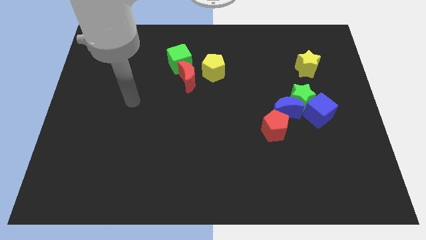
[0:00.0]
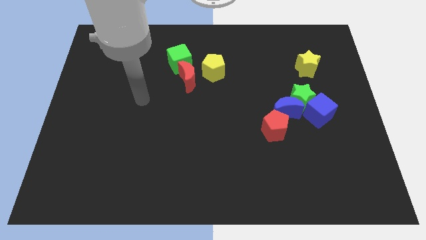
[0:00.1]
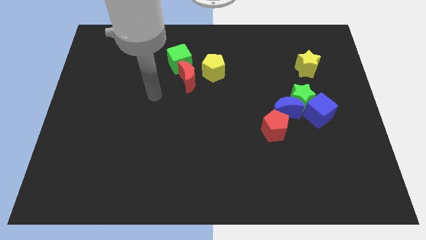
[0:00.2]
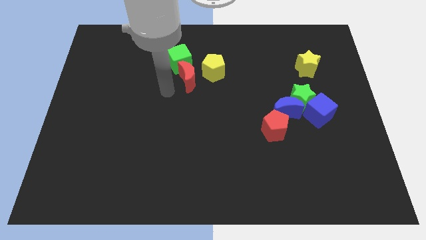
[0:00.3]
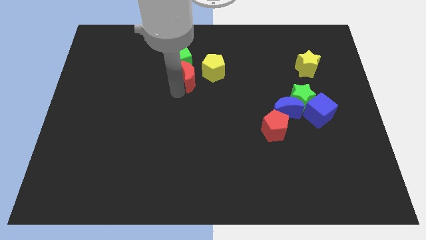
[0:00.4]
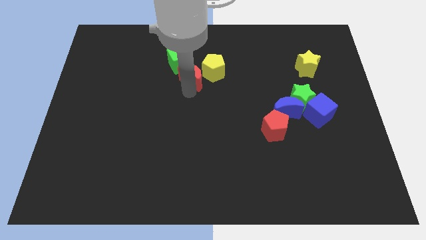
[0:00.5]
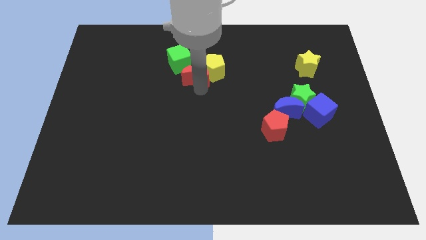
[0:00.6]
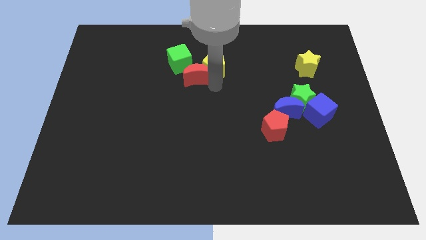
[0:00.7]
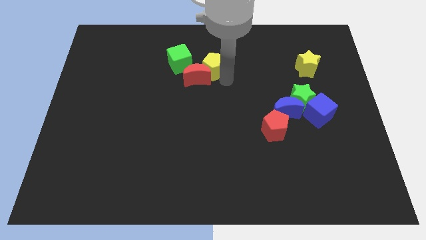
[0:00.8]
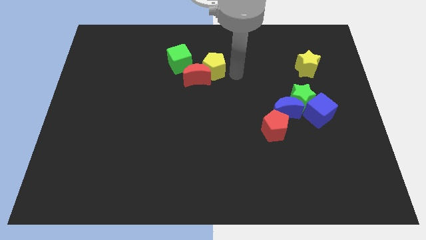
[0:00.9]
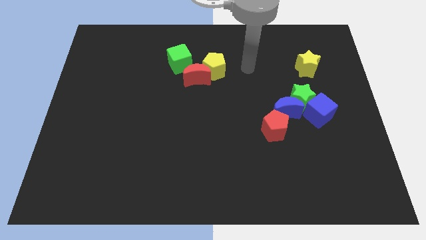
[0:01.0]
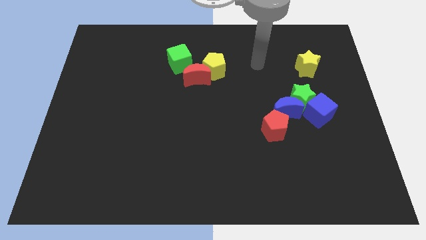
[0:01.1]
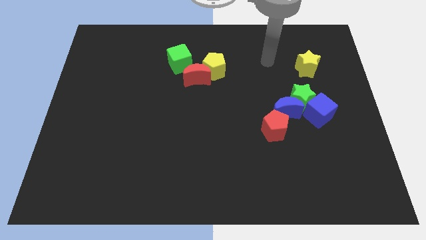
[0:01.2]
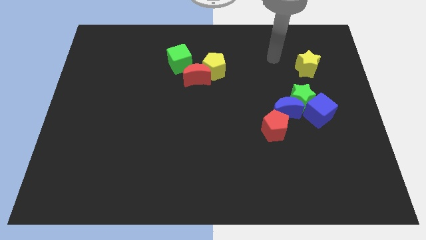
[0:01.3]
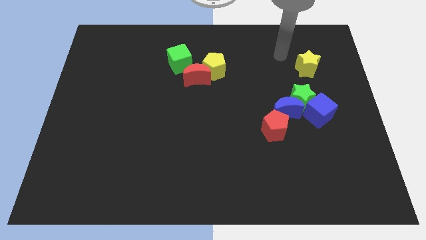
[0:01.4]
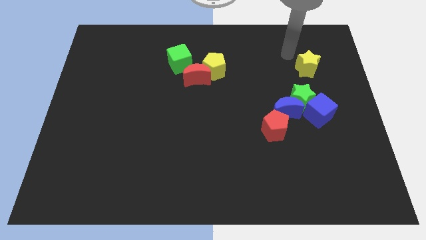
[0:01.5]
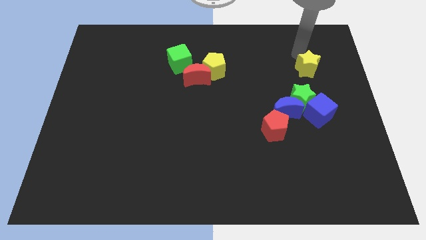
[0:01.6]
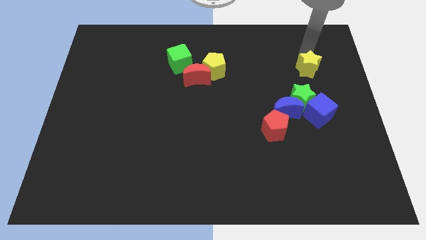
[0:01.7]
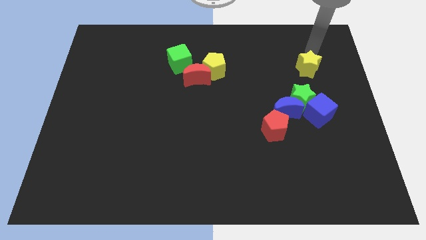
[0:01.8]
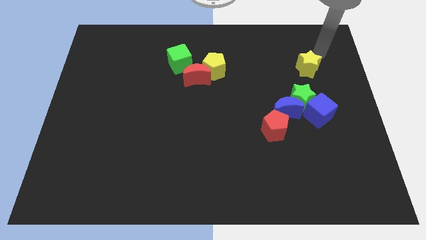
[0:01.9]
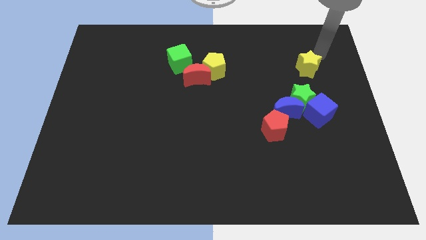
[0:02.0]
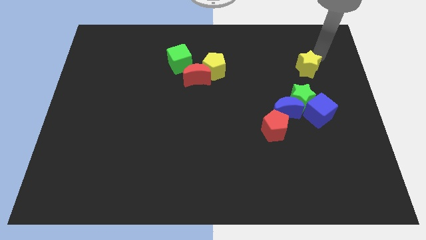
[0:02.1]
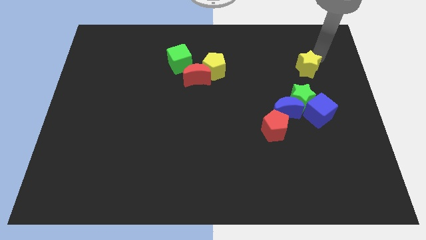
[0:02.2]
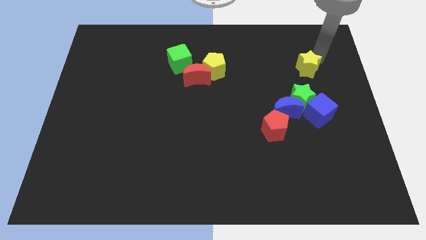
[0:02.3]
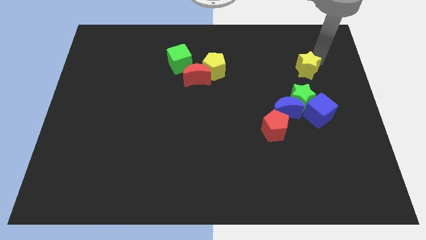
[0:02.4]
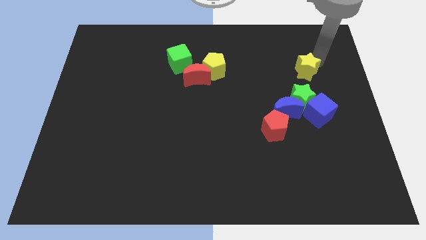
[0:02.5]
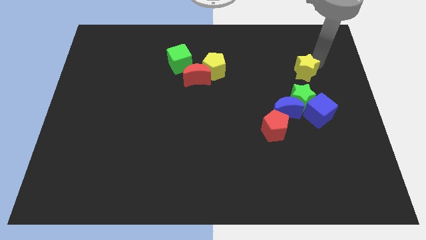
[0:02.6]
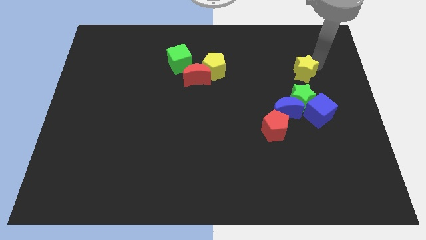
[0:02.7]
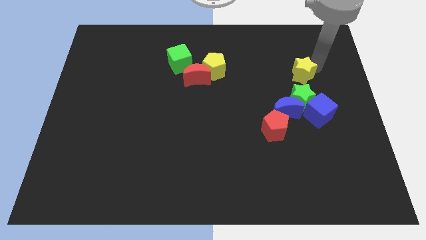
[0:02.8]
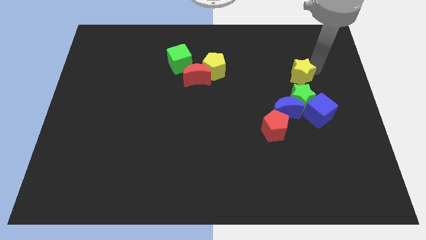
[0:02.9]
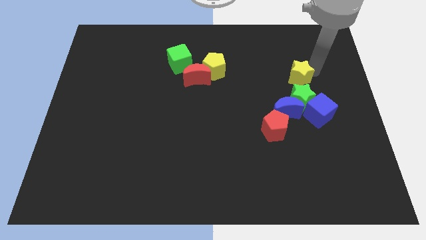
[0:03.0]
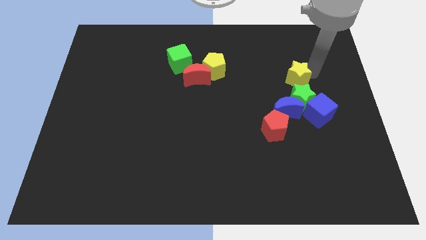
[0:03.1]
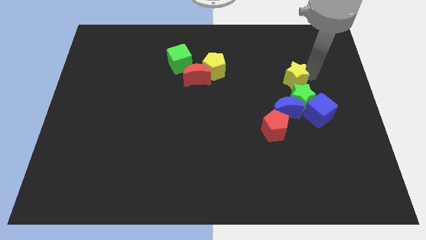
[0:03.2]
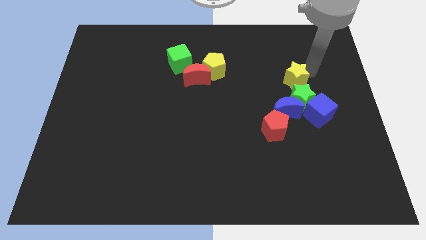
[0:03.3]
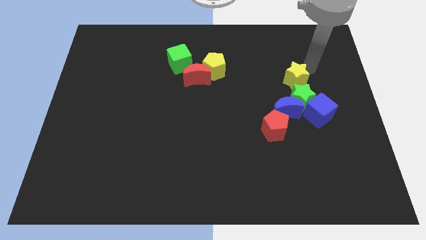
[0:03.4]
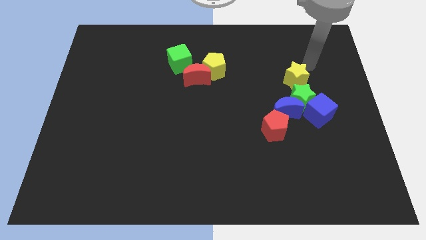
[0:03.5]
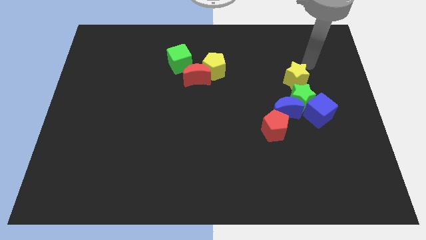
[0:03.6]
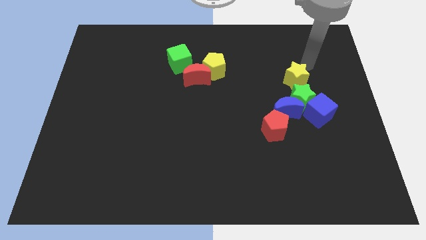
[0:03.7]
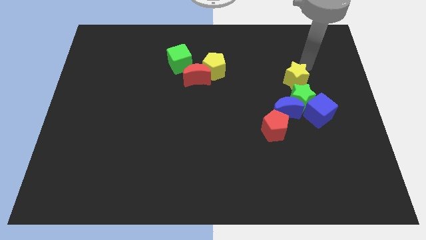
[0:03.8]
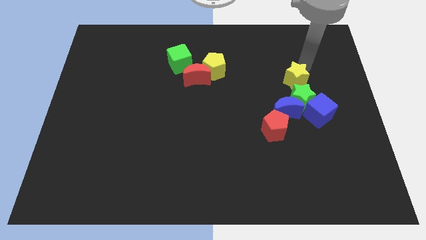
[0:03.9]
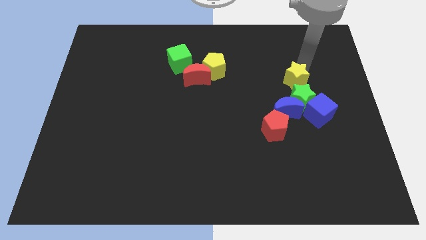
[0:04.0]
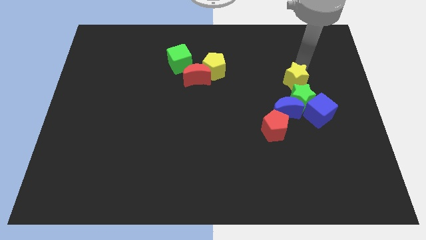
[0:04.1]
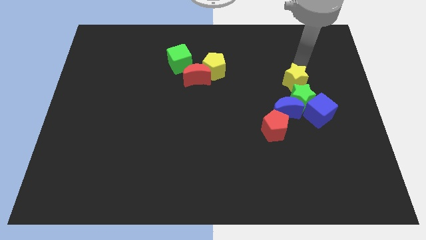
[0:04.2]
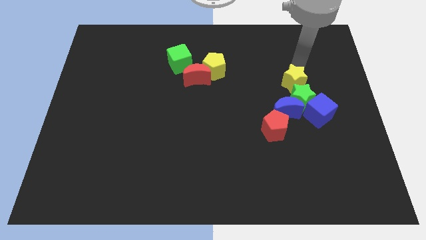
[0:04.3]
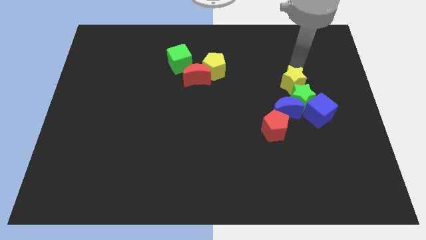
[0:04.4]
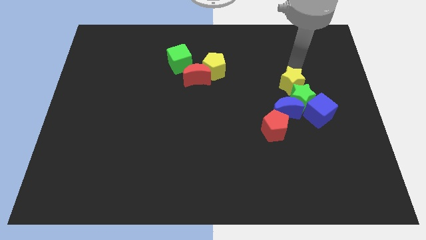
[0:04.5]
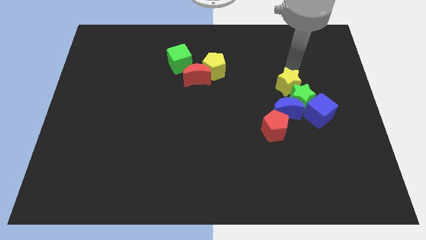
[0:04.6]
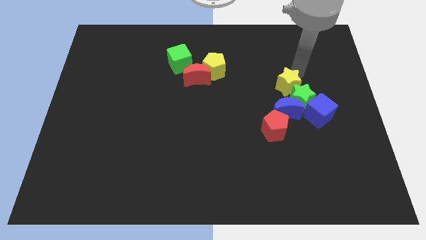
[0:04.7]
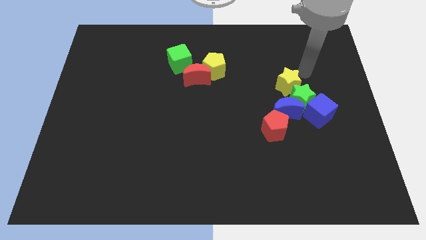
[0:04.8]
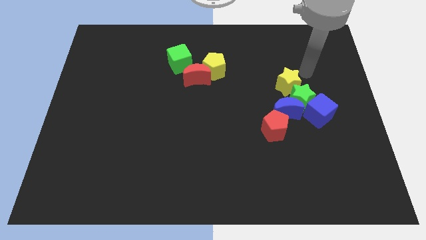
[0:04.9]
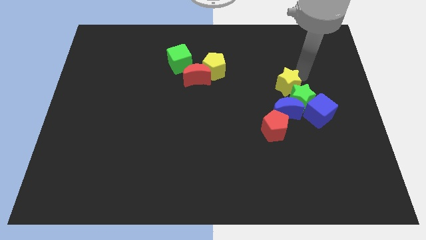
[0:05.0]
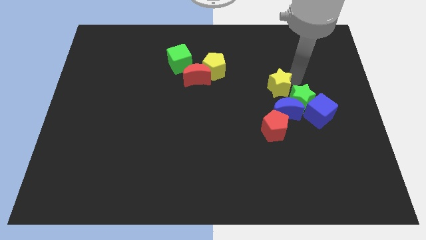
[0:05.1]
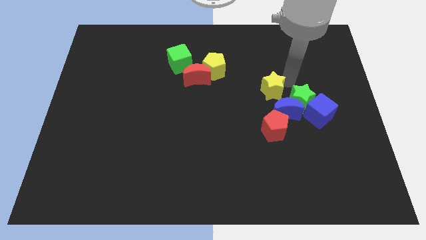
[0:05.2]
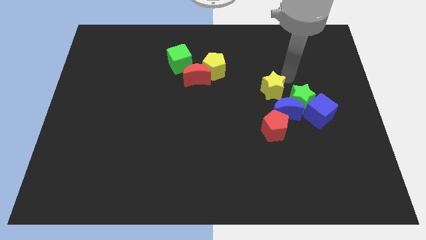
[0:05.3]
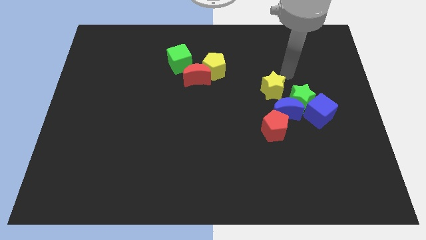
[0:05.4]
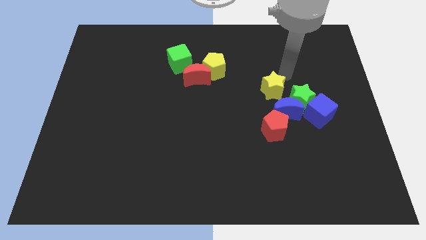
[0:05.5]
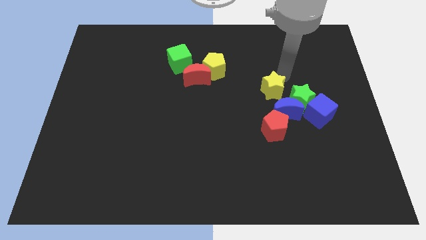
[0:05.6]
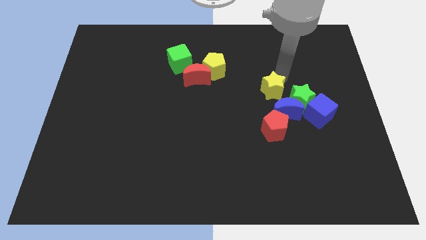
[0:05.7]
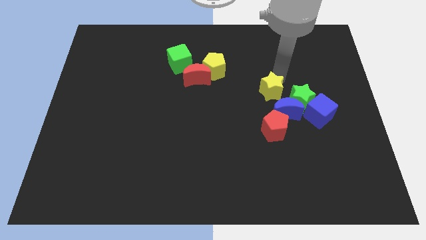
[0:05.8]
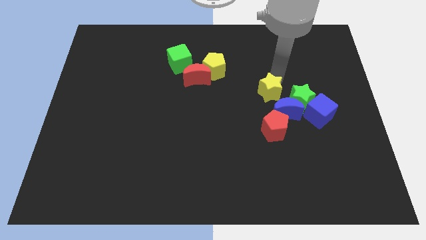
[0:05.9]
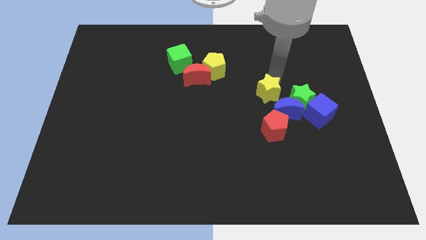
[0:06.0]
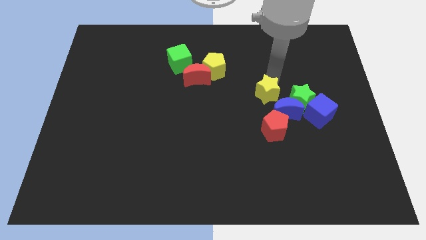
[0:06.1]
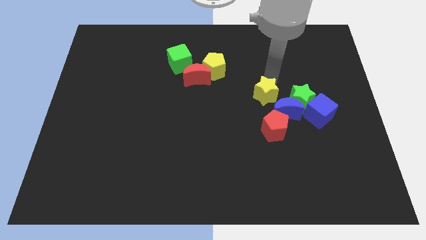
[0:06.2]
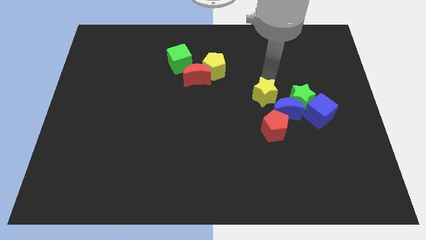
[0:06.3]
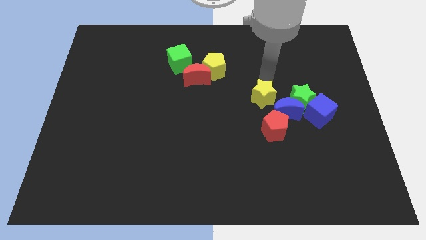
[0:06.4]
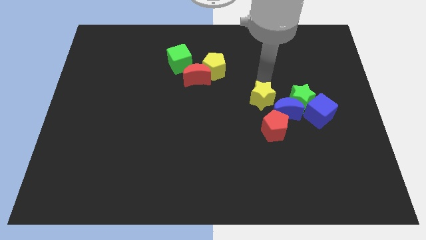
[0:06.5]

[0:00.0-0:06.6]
push the yellow star left of the blue cube
